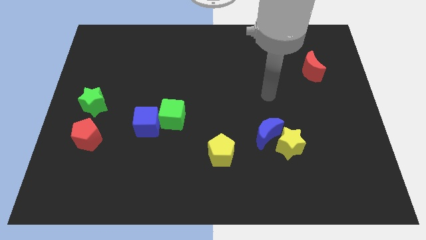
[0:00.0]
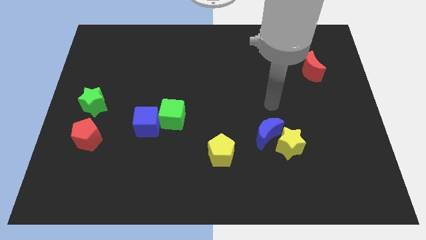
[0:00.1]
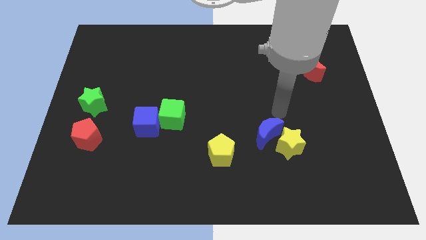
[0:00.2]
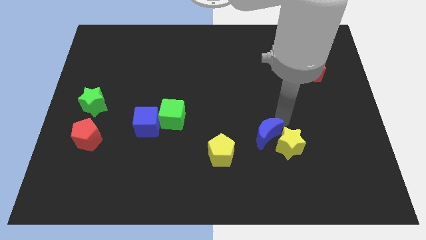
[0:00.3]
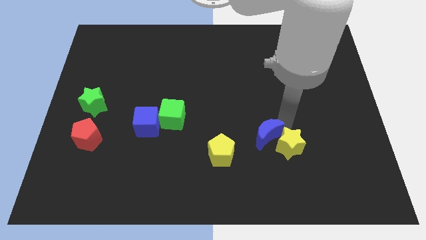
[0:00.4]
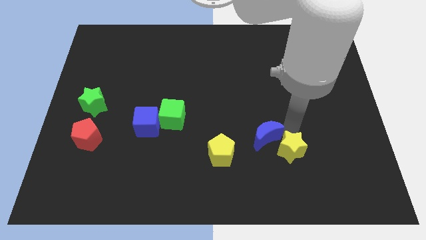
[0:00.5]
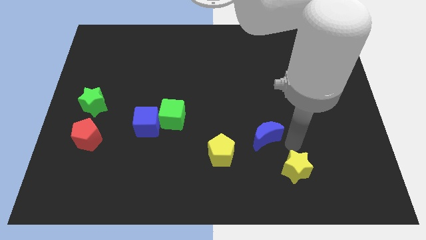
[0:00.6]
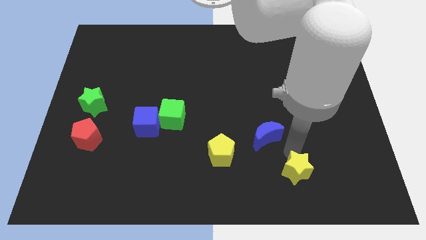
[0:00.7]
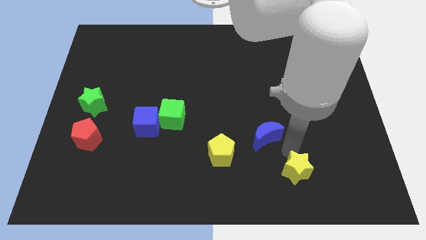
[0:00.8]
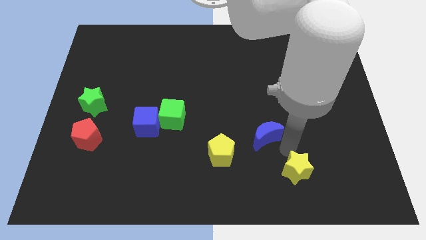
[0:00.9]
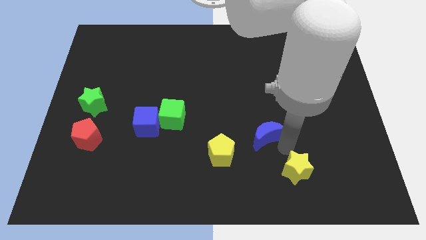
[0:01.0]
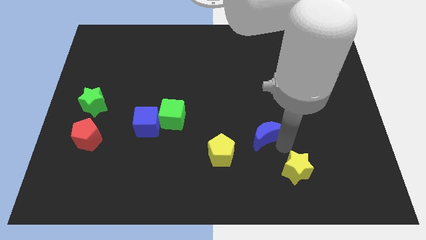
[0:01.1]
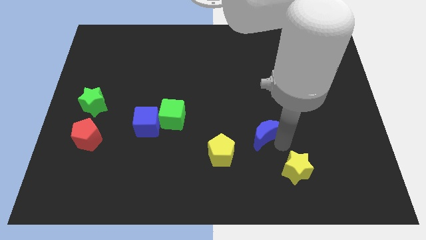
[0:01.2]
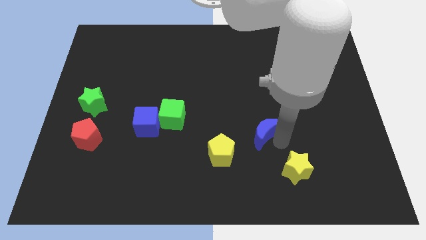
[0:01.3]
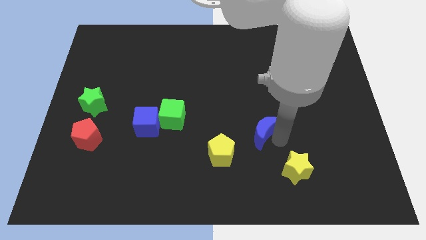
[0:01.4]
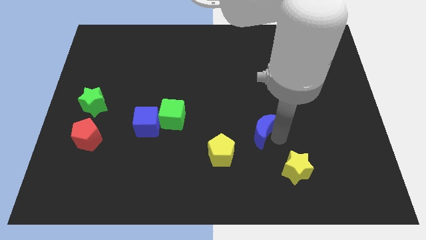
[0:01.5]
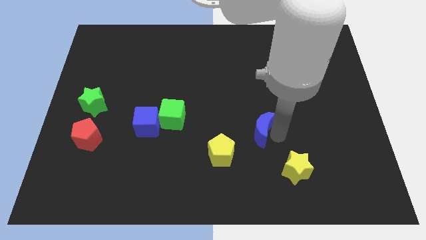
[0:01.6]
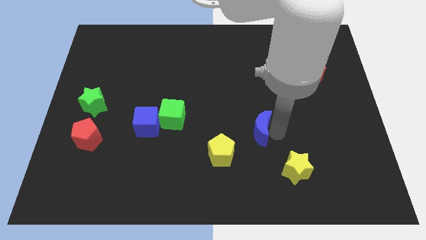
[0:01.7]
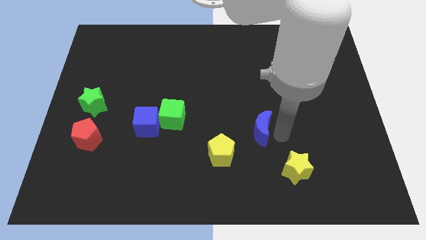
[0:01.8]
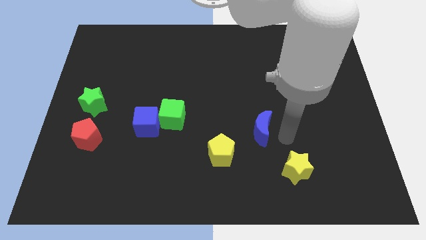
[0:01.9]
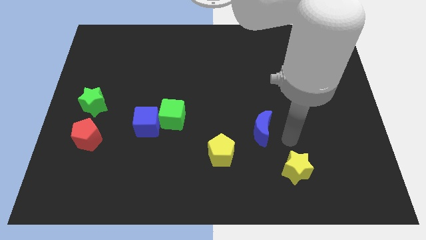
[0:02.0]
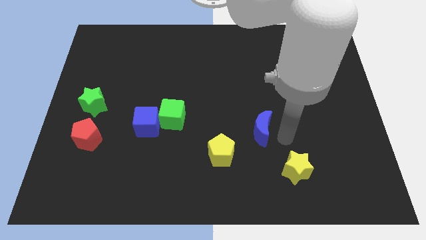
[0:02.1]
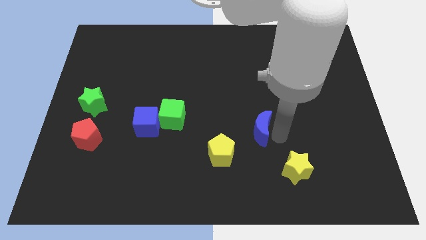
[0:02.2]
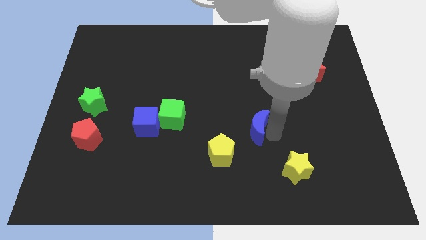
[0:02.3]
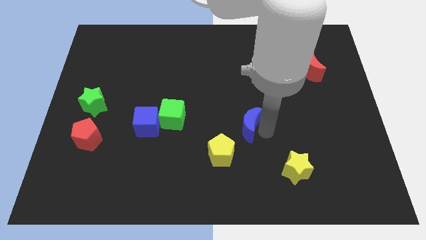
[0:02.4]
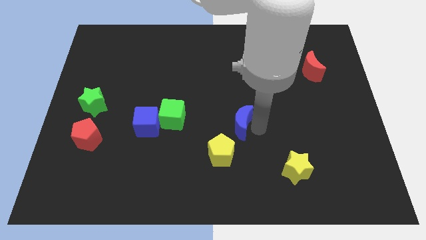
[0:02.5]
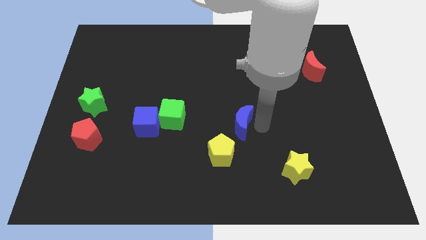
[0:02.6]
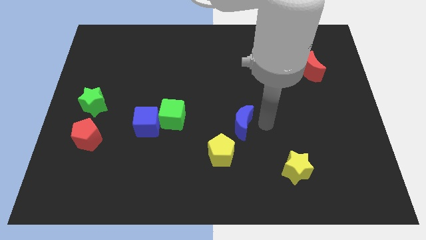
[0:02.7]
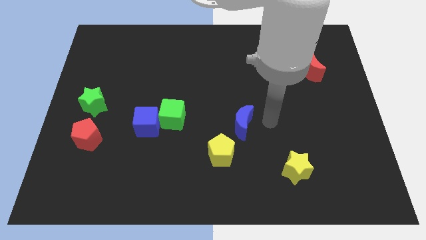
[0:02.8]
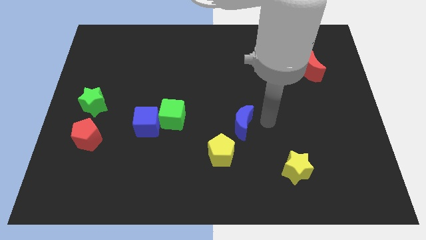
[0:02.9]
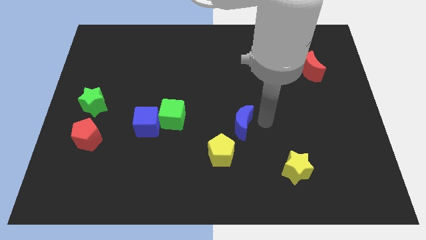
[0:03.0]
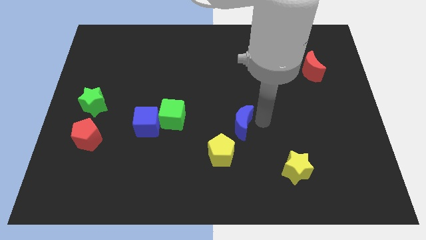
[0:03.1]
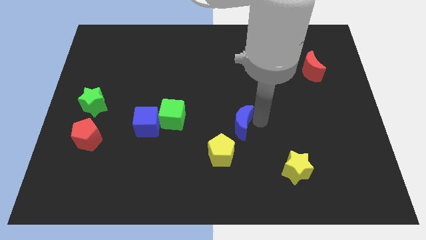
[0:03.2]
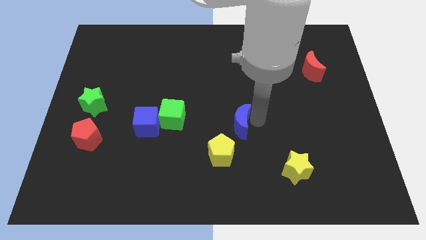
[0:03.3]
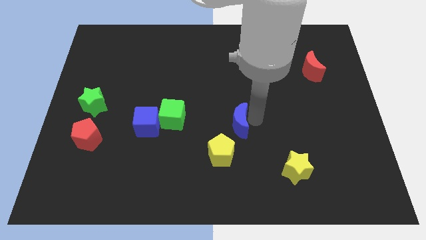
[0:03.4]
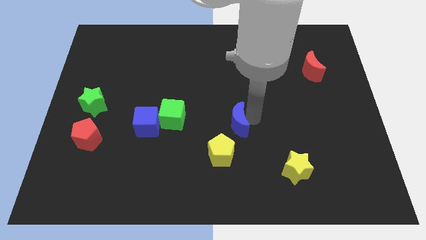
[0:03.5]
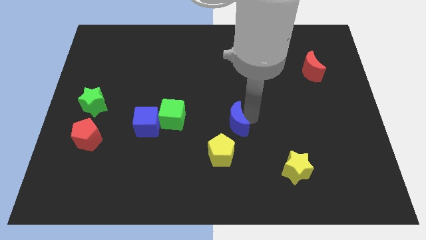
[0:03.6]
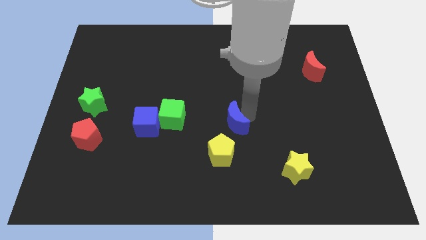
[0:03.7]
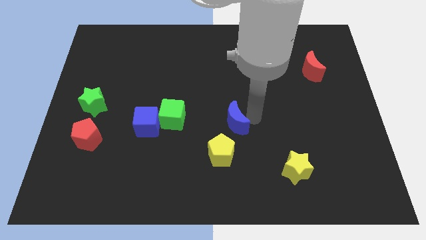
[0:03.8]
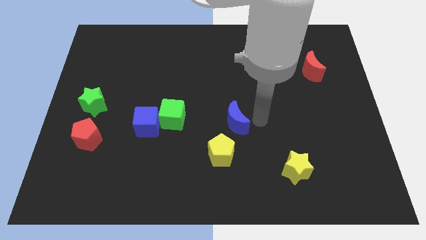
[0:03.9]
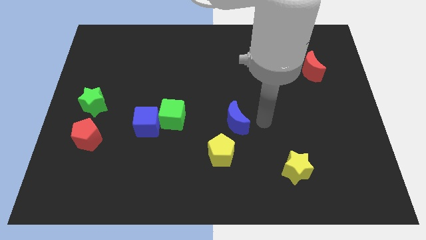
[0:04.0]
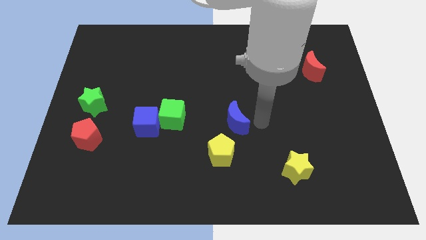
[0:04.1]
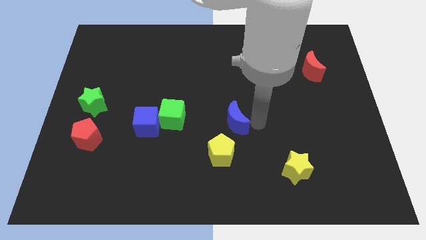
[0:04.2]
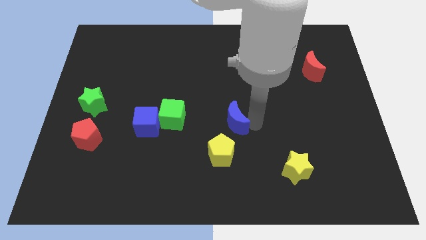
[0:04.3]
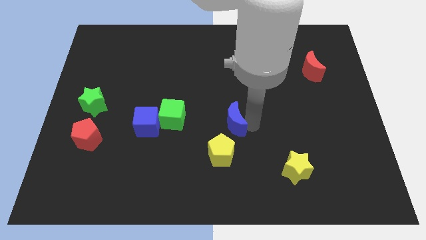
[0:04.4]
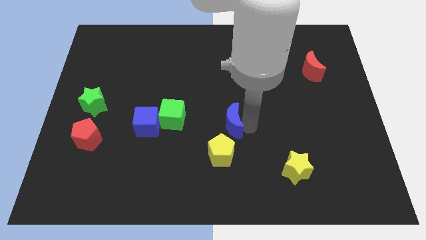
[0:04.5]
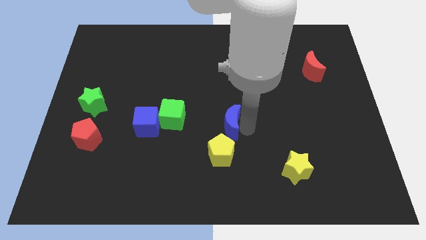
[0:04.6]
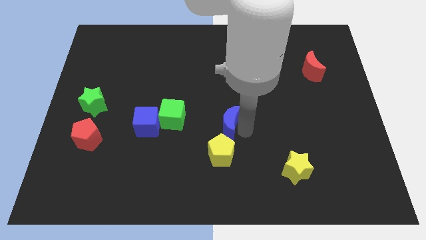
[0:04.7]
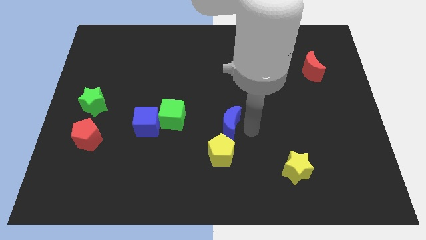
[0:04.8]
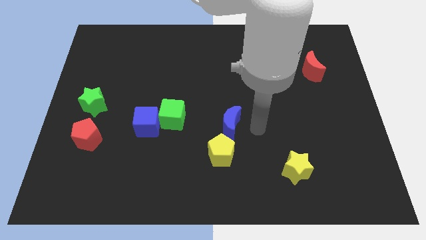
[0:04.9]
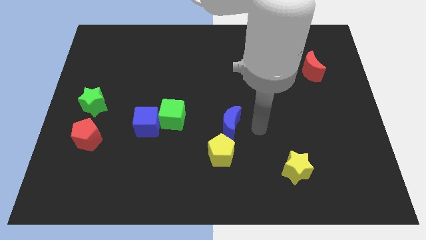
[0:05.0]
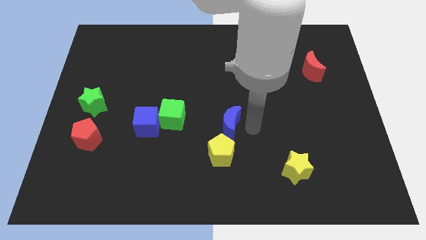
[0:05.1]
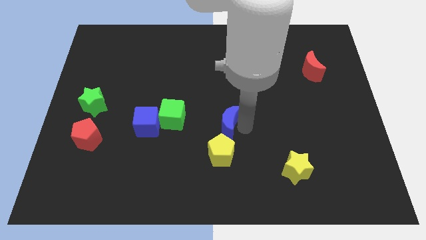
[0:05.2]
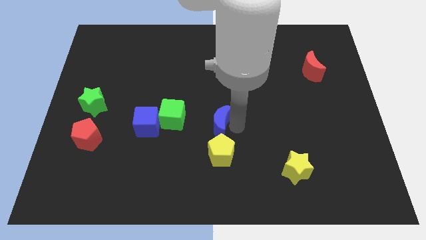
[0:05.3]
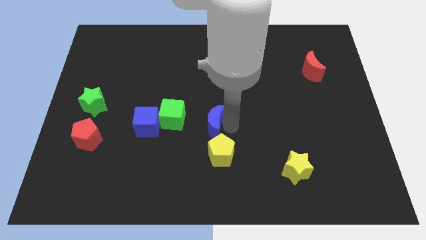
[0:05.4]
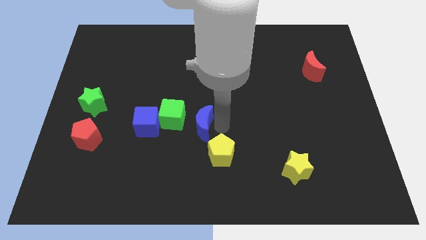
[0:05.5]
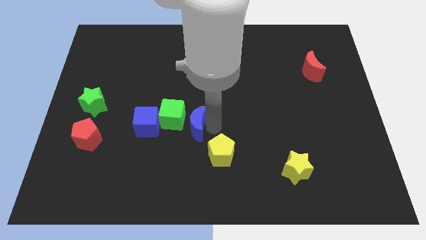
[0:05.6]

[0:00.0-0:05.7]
move the blue moon next to the green cube

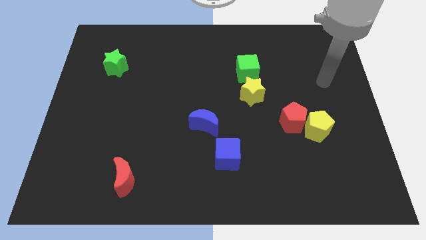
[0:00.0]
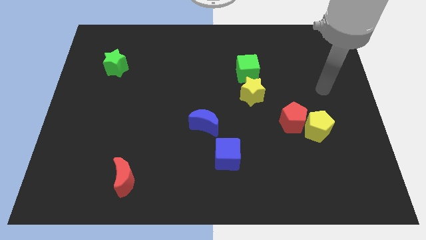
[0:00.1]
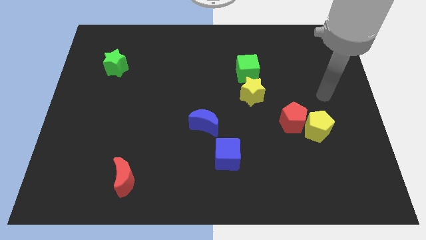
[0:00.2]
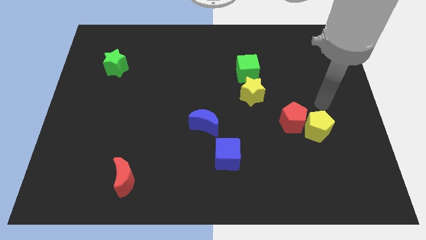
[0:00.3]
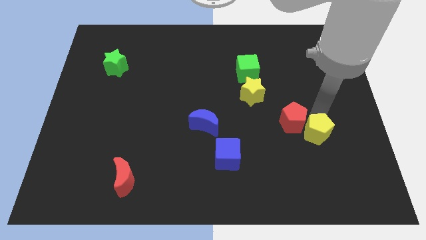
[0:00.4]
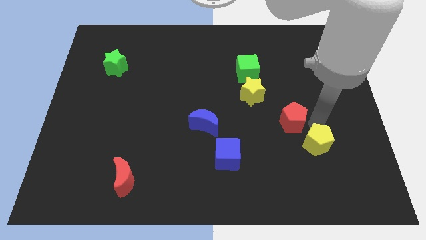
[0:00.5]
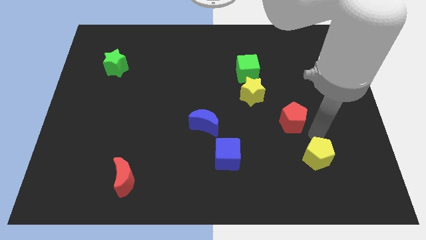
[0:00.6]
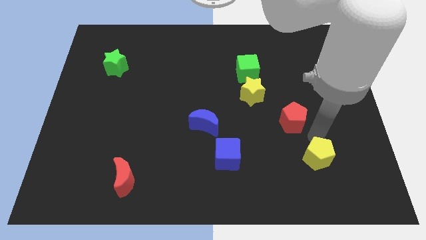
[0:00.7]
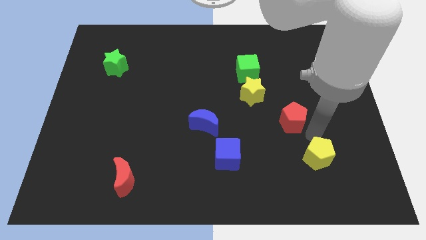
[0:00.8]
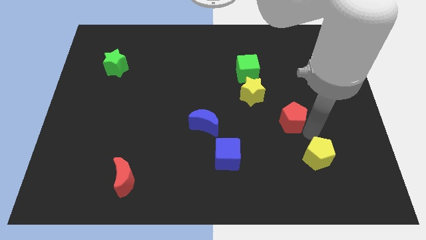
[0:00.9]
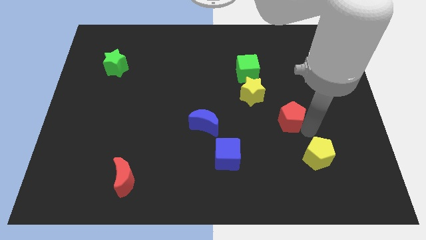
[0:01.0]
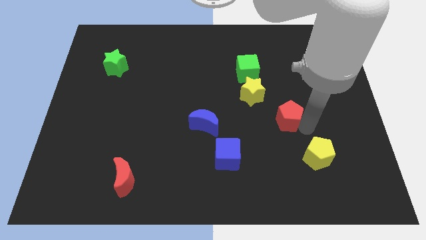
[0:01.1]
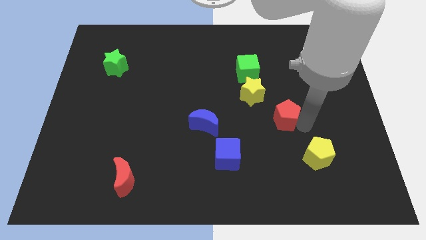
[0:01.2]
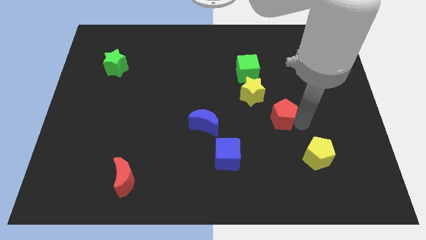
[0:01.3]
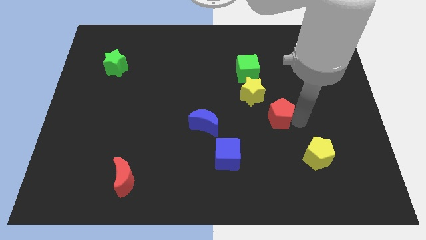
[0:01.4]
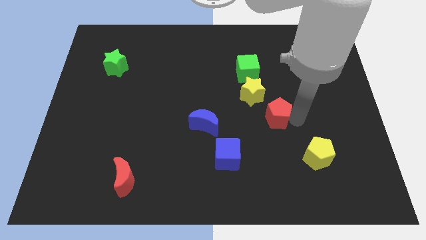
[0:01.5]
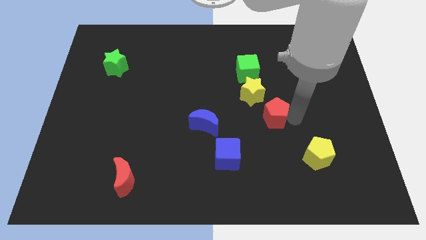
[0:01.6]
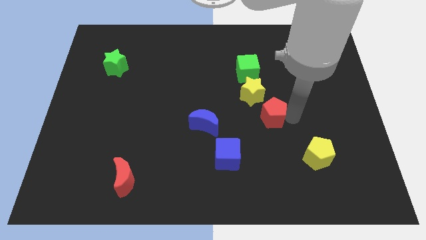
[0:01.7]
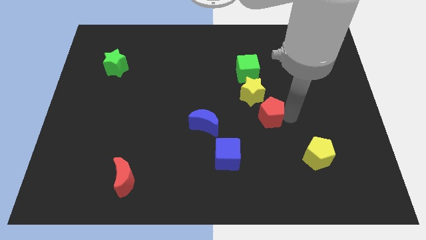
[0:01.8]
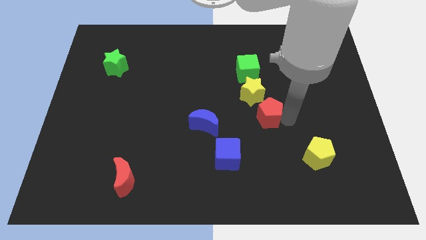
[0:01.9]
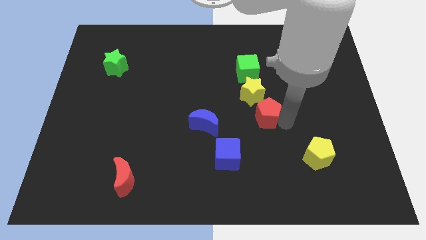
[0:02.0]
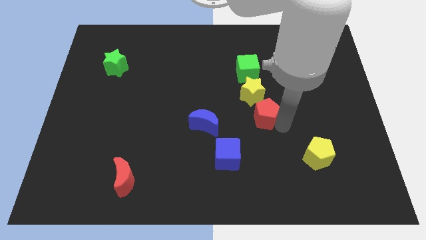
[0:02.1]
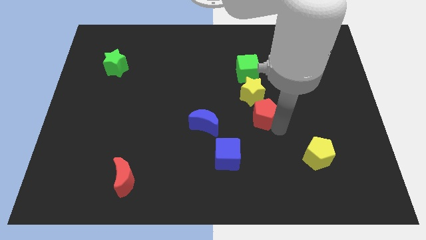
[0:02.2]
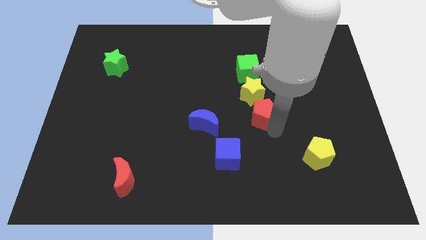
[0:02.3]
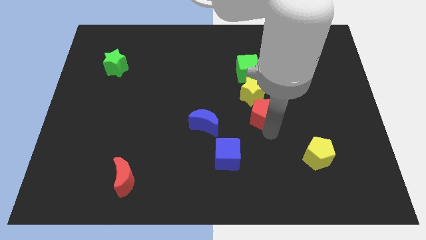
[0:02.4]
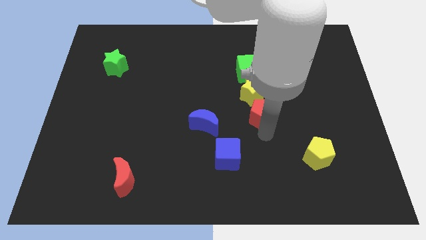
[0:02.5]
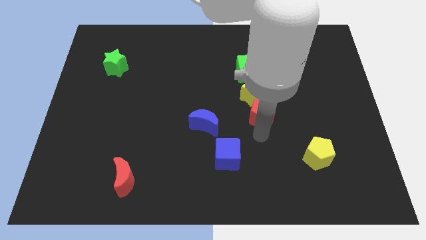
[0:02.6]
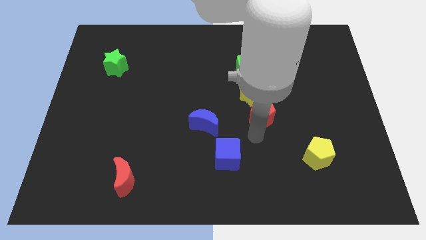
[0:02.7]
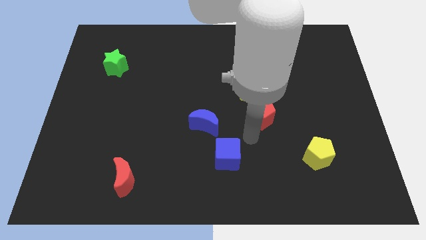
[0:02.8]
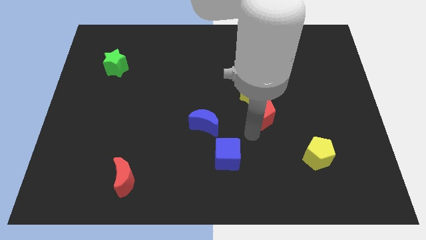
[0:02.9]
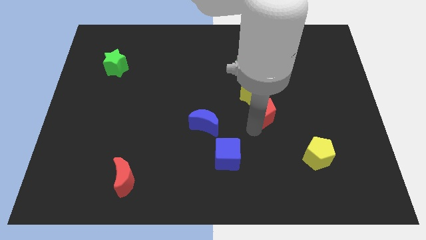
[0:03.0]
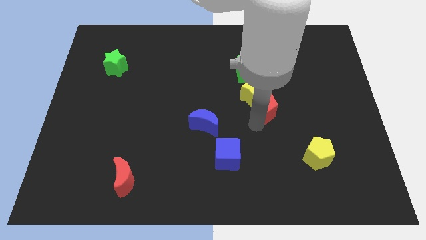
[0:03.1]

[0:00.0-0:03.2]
push the red pentagon next to the yellow star
